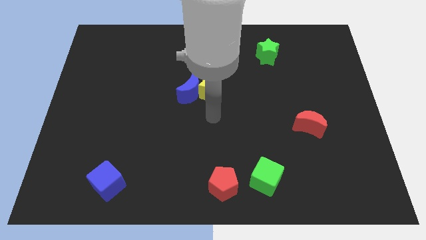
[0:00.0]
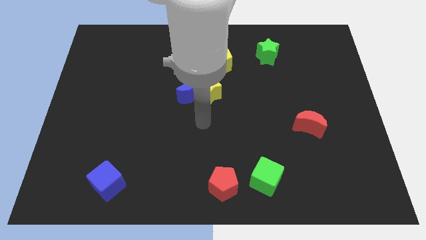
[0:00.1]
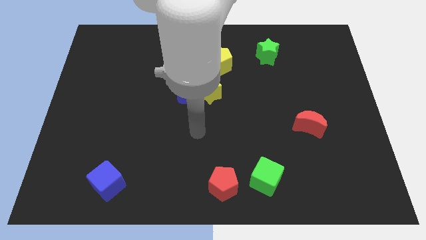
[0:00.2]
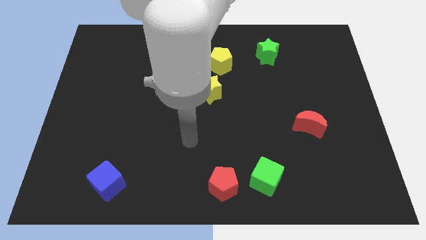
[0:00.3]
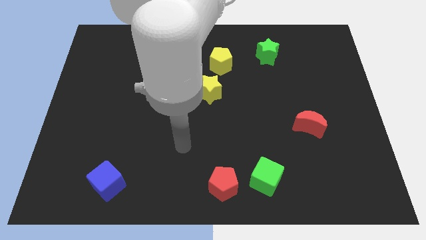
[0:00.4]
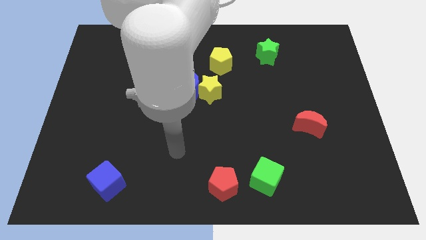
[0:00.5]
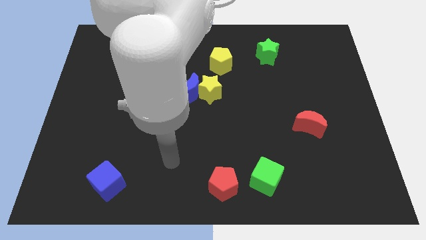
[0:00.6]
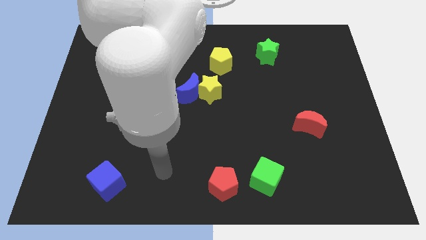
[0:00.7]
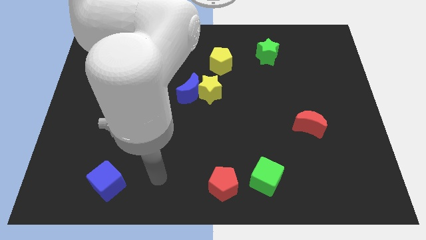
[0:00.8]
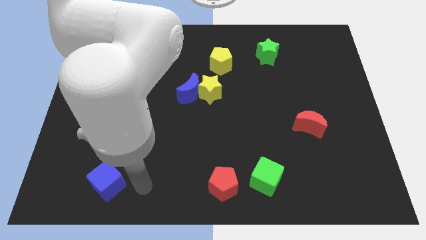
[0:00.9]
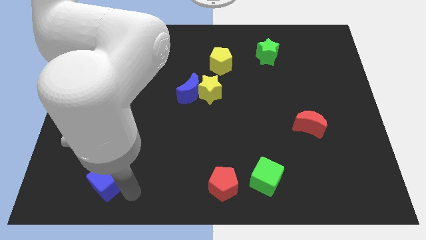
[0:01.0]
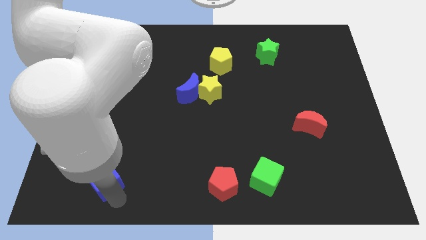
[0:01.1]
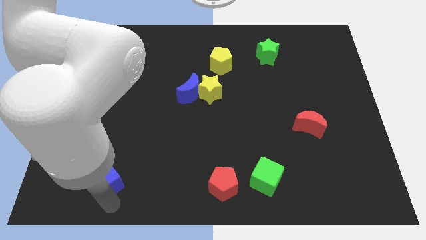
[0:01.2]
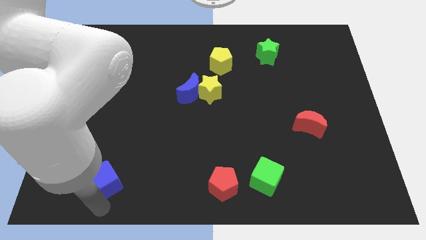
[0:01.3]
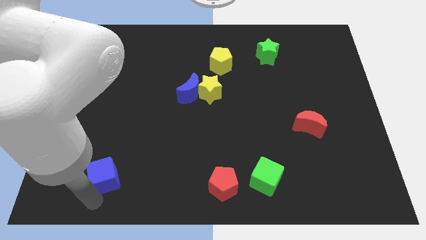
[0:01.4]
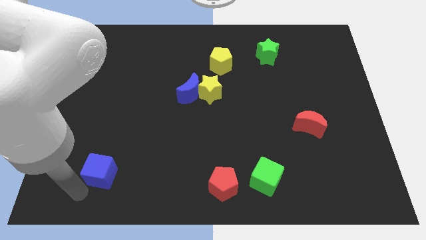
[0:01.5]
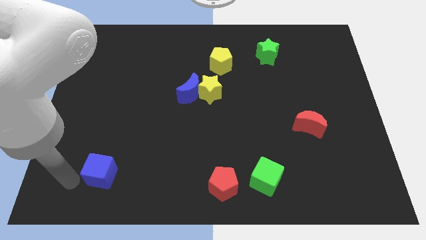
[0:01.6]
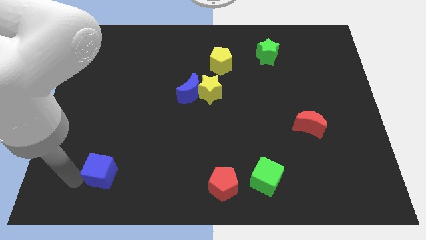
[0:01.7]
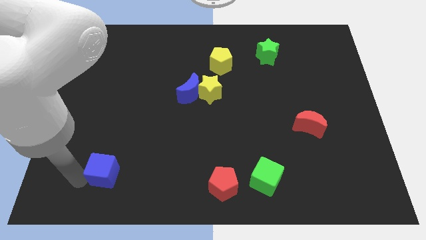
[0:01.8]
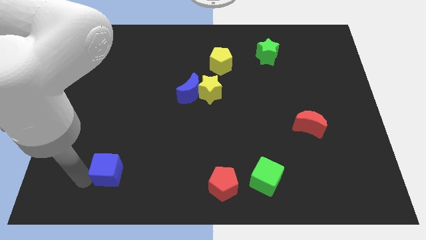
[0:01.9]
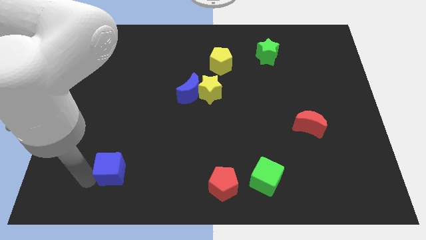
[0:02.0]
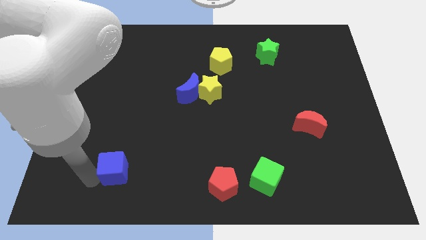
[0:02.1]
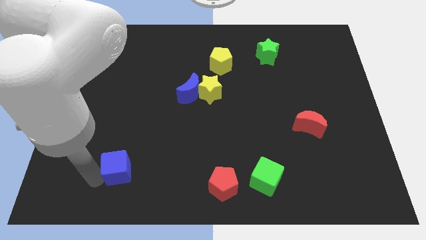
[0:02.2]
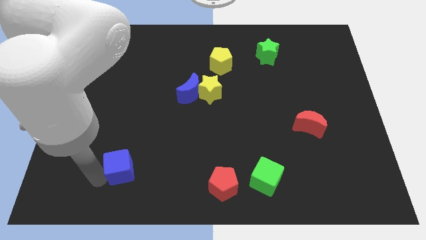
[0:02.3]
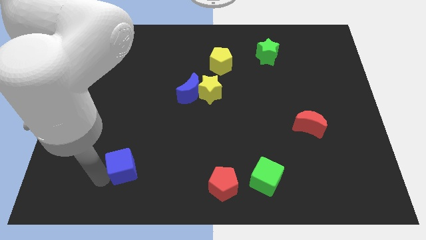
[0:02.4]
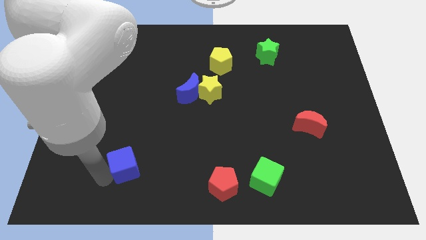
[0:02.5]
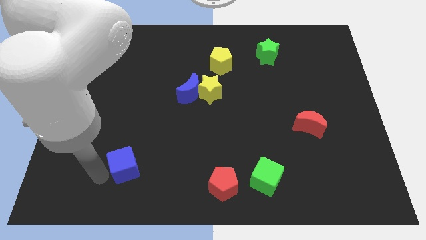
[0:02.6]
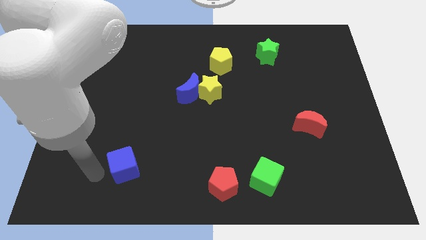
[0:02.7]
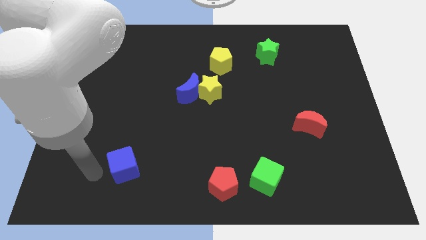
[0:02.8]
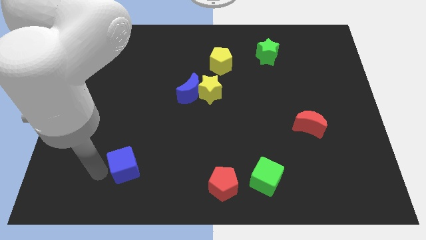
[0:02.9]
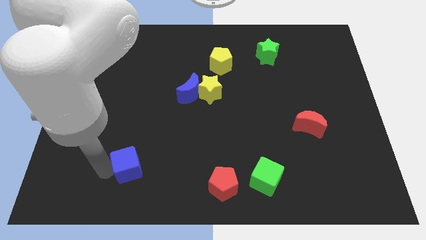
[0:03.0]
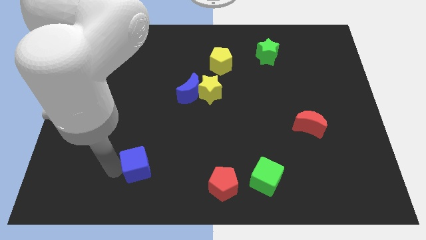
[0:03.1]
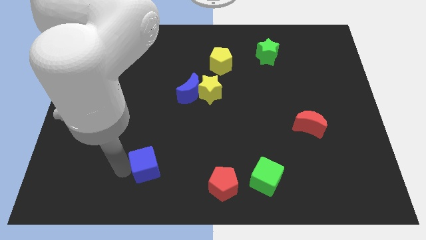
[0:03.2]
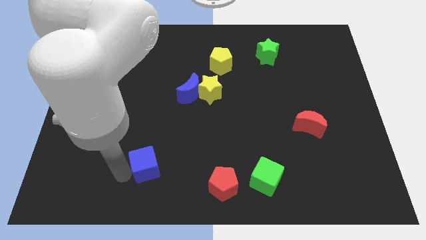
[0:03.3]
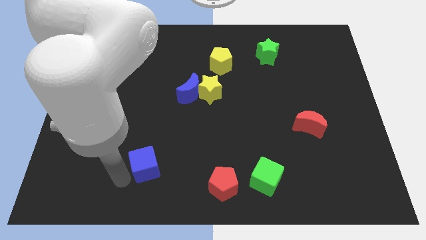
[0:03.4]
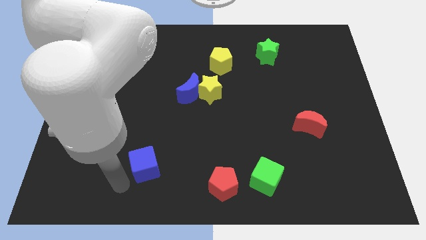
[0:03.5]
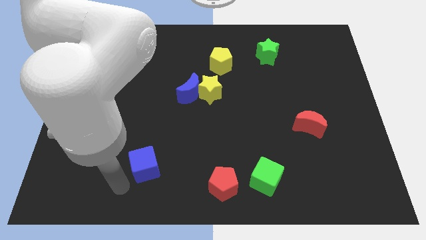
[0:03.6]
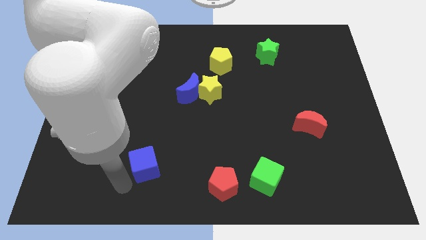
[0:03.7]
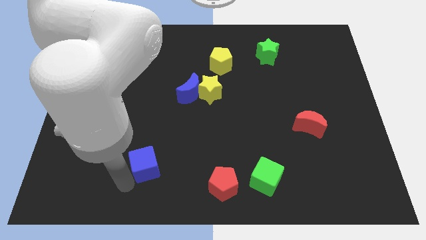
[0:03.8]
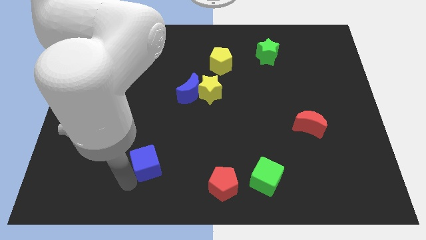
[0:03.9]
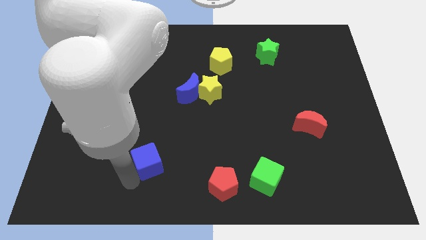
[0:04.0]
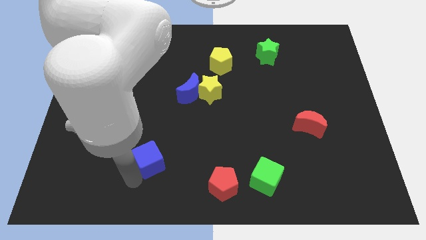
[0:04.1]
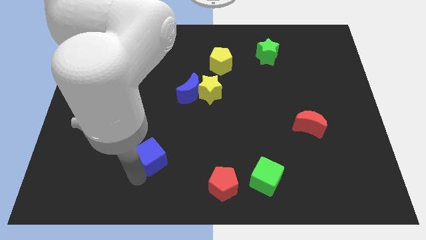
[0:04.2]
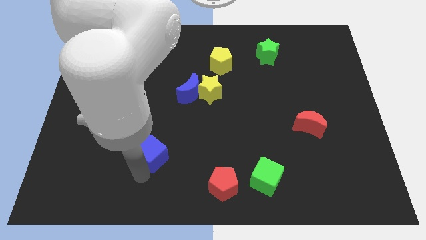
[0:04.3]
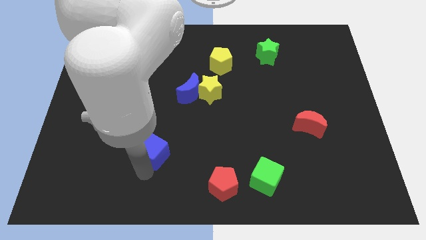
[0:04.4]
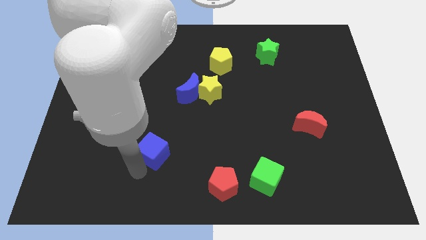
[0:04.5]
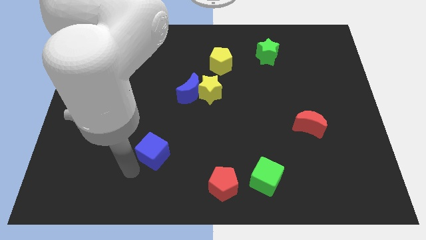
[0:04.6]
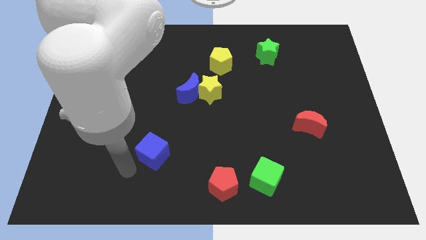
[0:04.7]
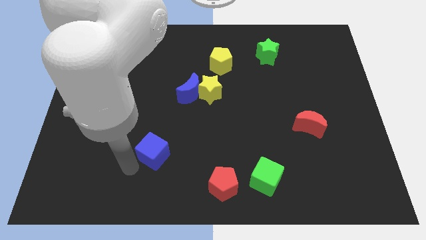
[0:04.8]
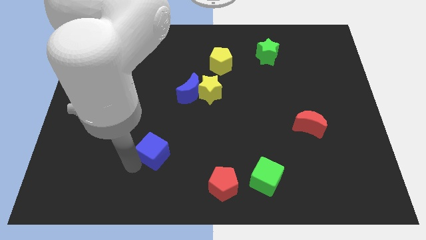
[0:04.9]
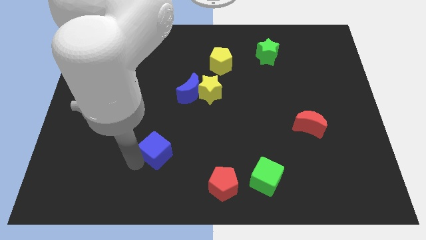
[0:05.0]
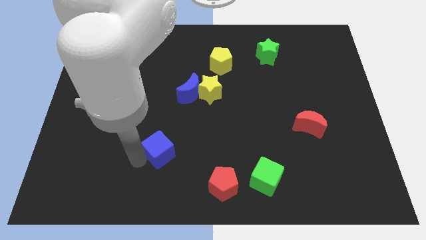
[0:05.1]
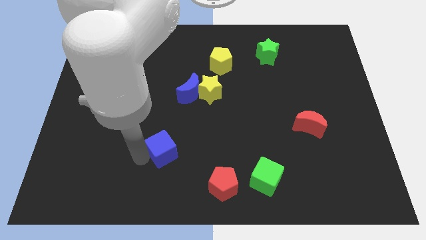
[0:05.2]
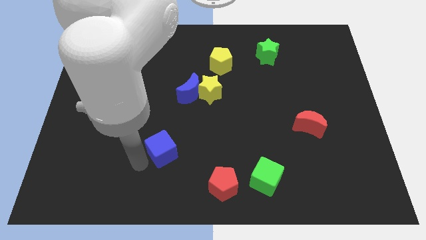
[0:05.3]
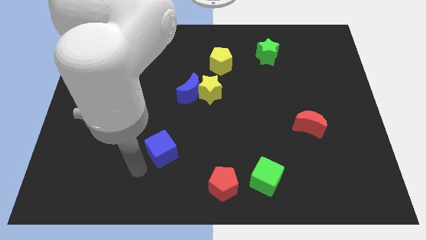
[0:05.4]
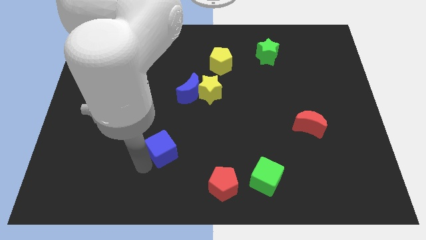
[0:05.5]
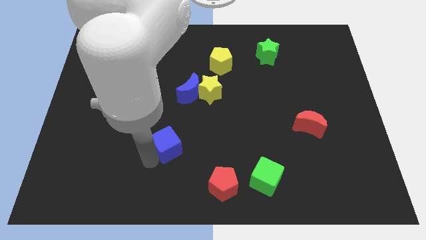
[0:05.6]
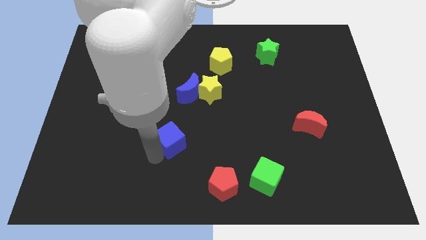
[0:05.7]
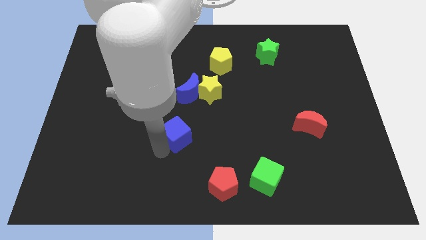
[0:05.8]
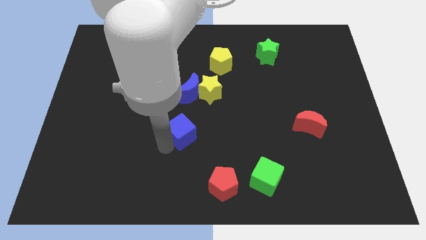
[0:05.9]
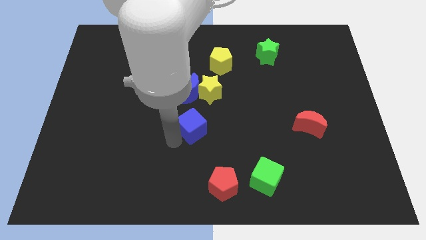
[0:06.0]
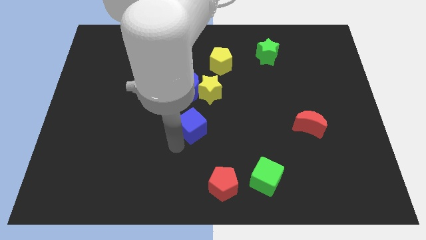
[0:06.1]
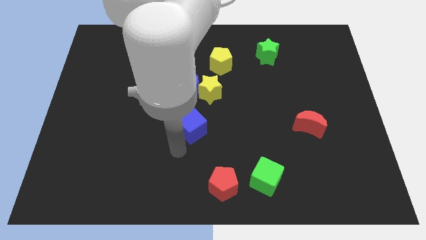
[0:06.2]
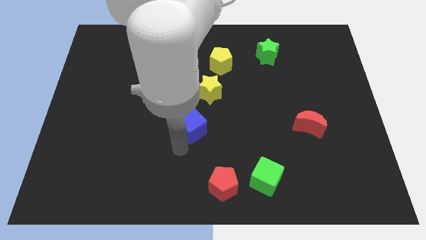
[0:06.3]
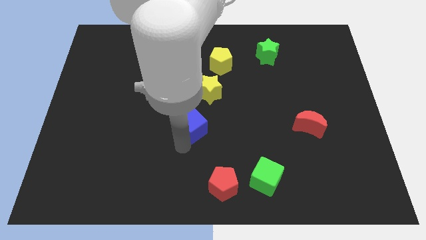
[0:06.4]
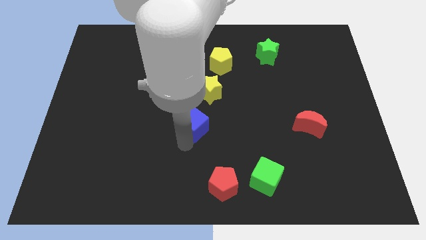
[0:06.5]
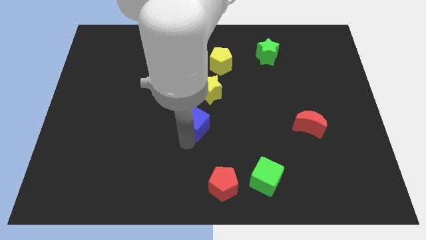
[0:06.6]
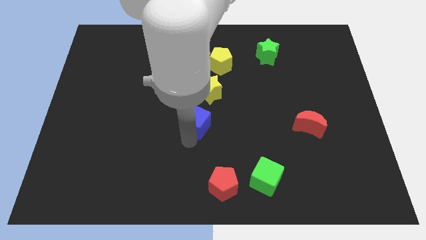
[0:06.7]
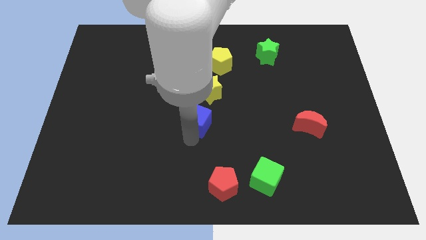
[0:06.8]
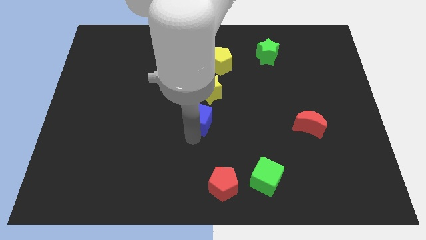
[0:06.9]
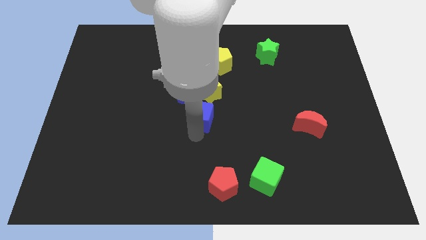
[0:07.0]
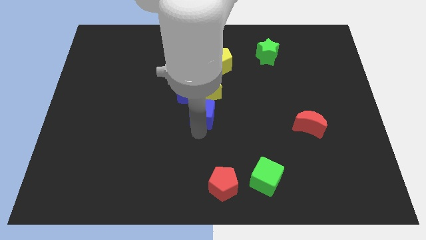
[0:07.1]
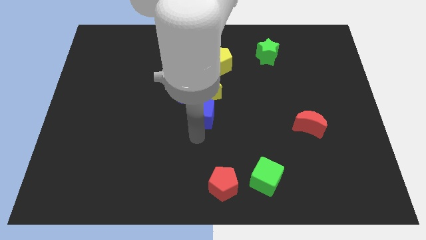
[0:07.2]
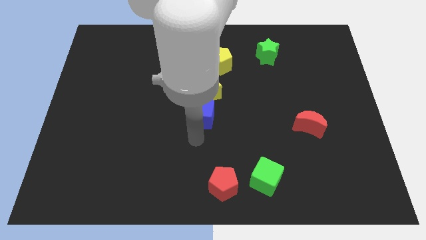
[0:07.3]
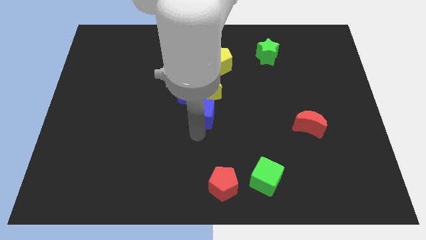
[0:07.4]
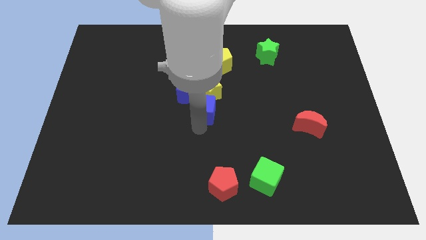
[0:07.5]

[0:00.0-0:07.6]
push the blue cube close to the yellow star
